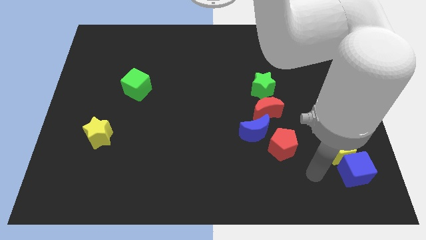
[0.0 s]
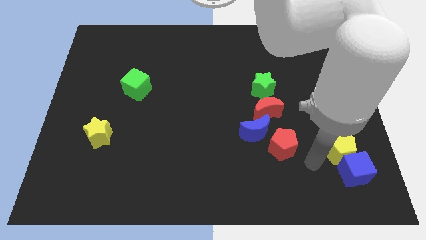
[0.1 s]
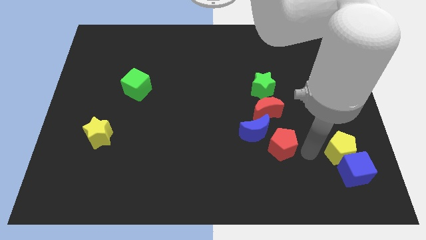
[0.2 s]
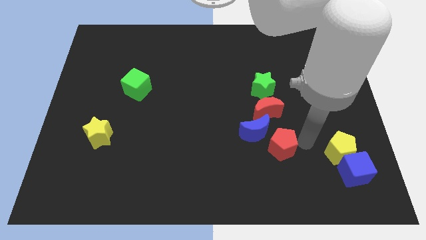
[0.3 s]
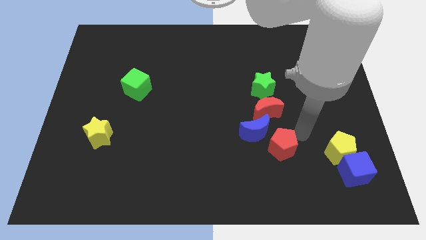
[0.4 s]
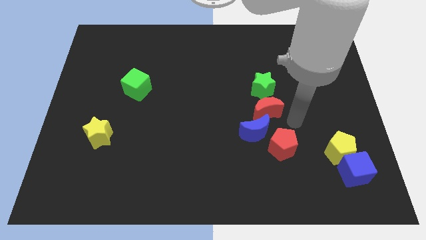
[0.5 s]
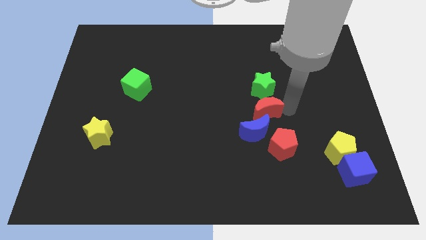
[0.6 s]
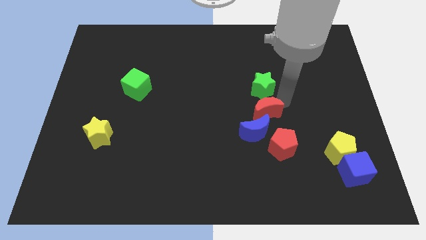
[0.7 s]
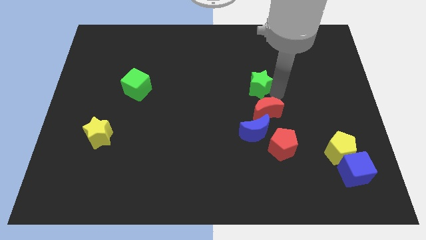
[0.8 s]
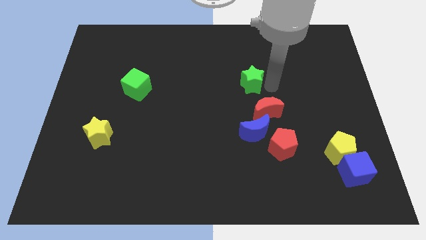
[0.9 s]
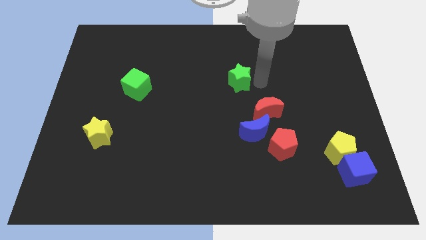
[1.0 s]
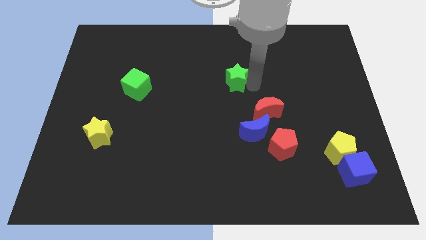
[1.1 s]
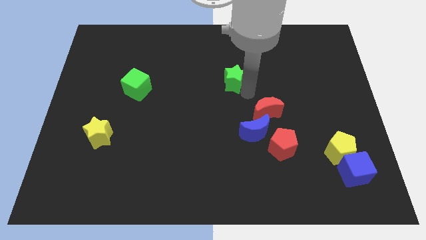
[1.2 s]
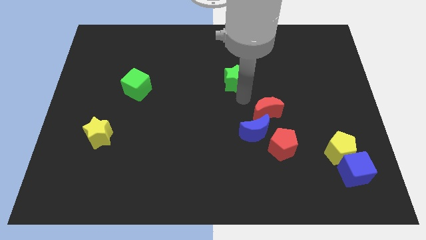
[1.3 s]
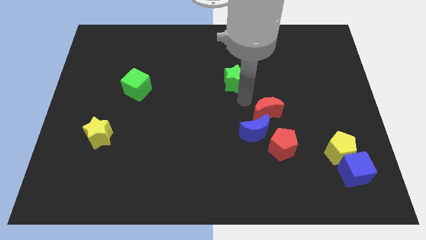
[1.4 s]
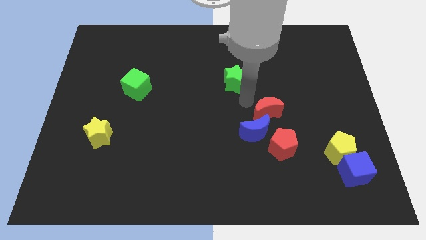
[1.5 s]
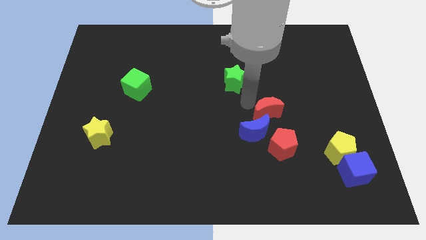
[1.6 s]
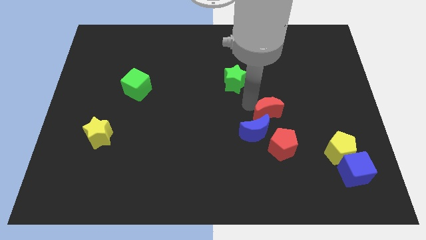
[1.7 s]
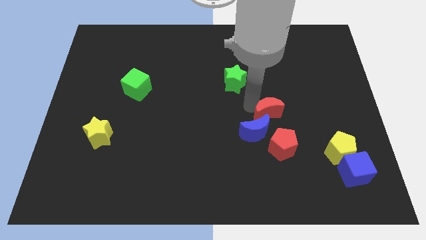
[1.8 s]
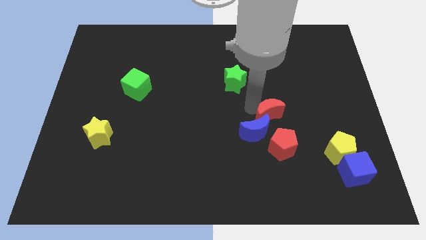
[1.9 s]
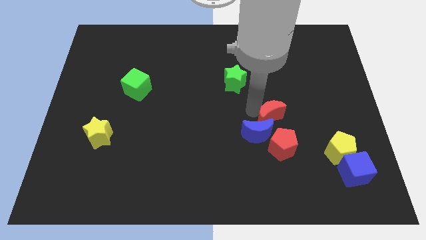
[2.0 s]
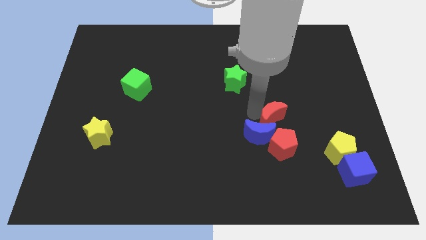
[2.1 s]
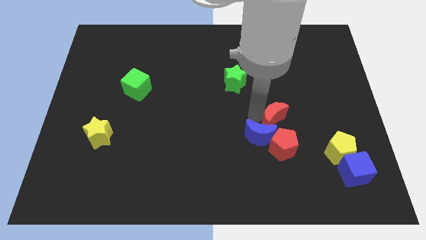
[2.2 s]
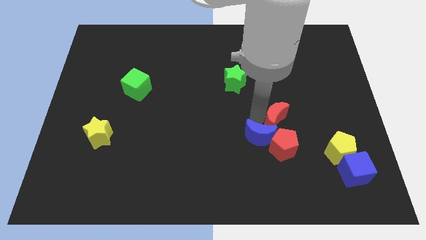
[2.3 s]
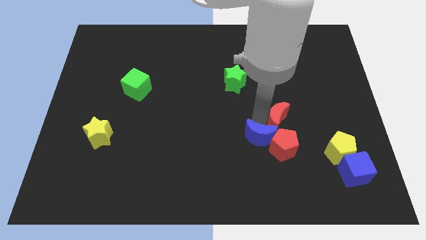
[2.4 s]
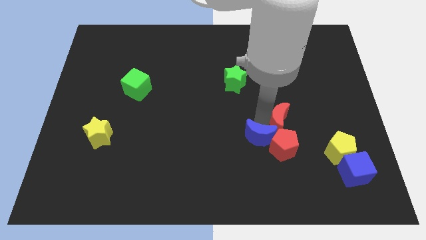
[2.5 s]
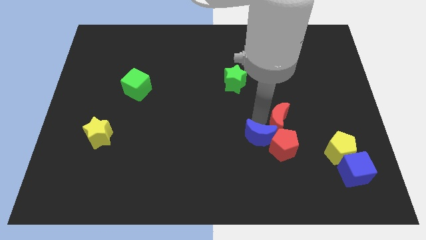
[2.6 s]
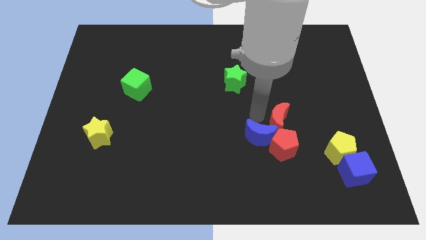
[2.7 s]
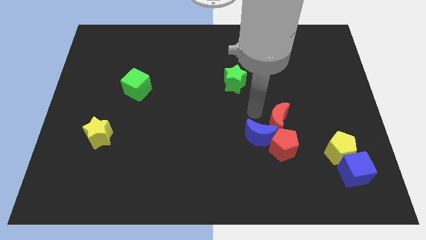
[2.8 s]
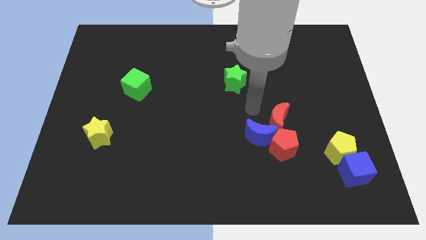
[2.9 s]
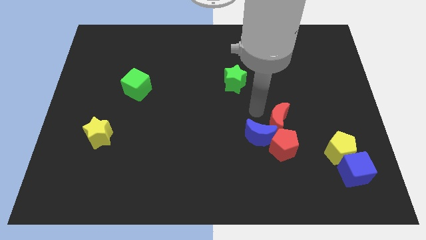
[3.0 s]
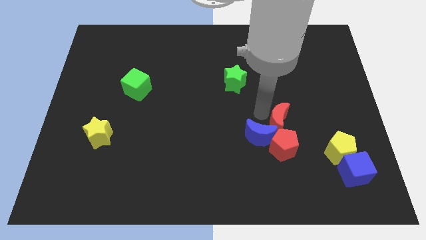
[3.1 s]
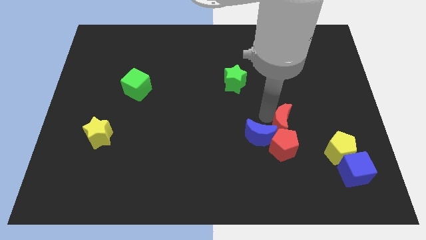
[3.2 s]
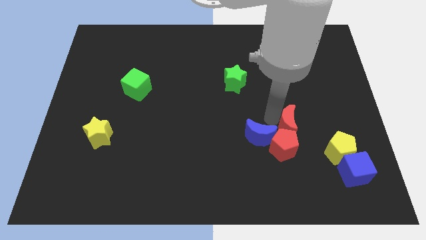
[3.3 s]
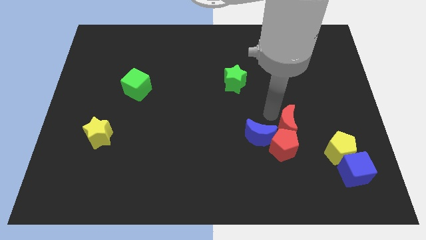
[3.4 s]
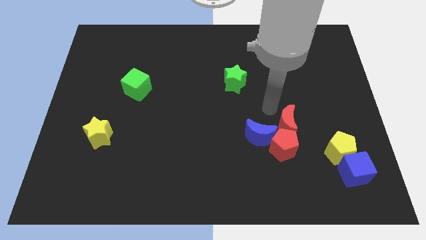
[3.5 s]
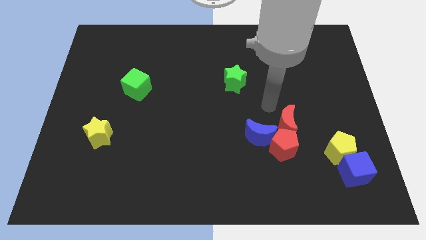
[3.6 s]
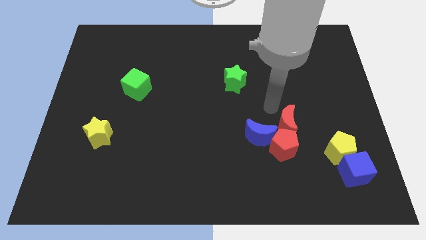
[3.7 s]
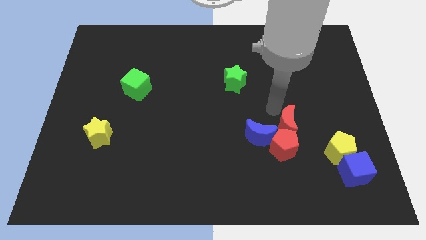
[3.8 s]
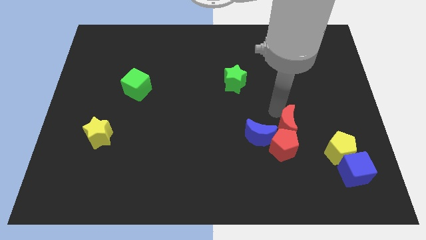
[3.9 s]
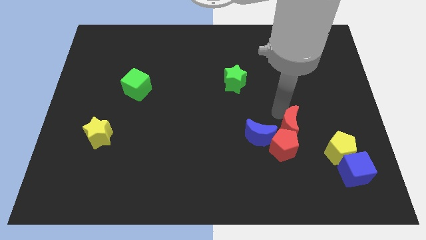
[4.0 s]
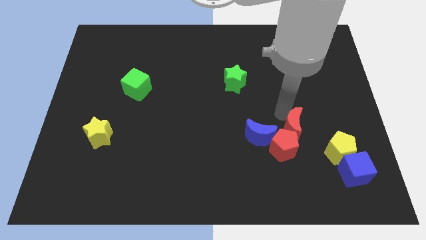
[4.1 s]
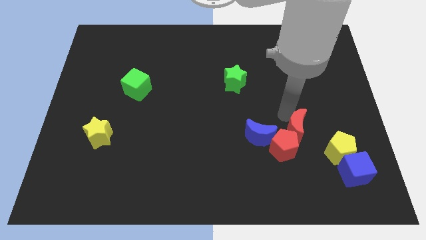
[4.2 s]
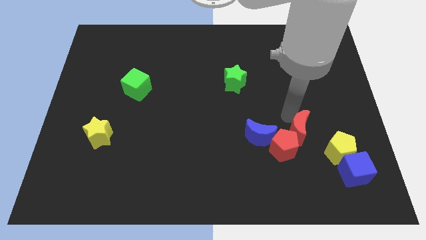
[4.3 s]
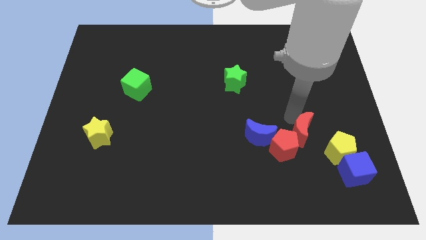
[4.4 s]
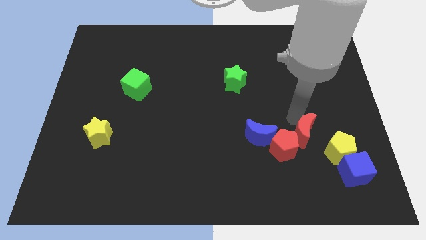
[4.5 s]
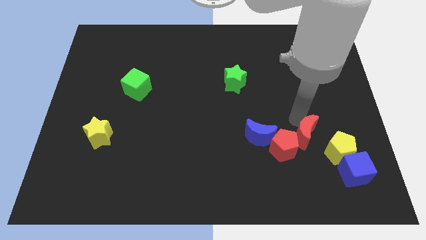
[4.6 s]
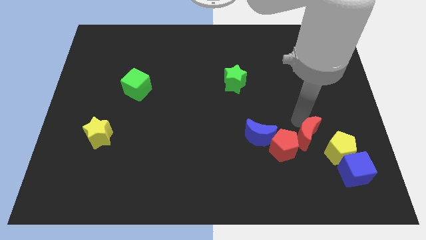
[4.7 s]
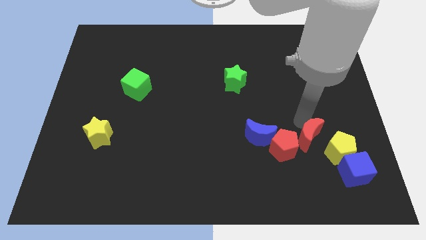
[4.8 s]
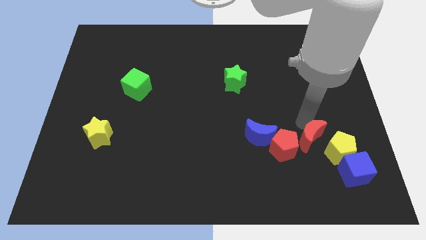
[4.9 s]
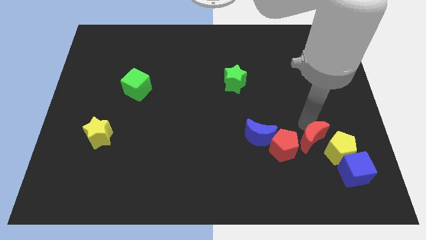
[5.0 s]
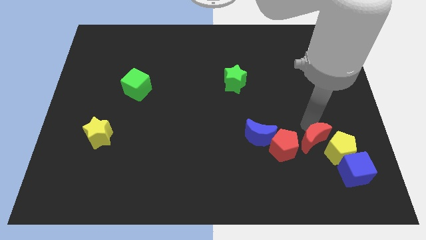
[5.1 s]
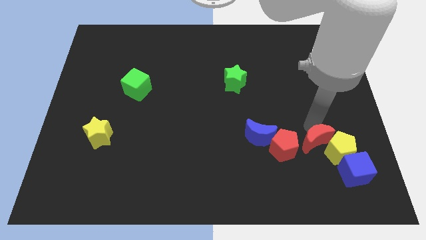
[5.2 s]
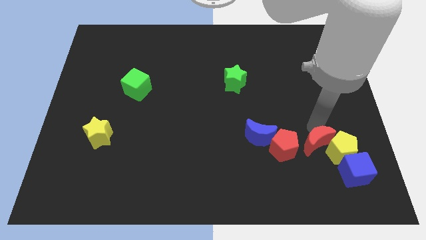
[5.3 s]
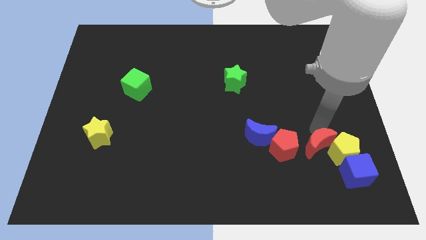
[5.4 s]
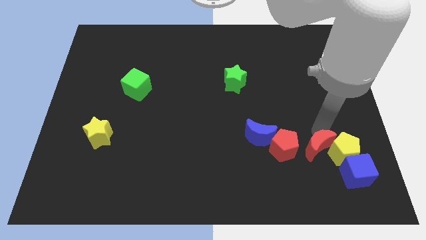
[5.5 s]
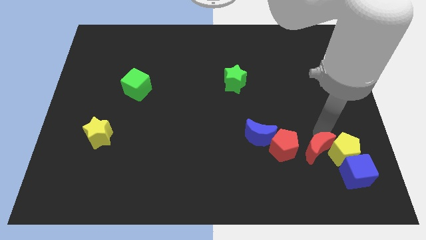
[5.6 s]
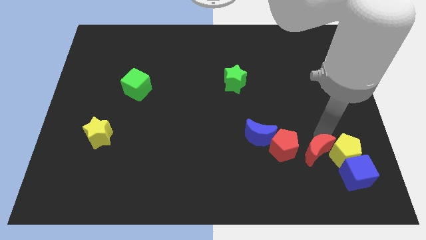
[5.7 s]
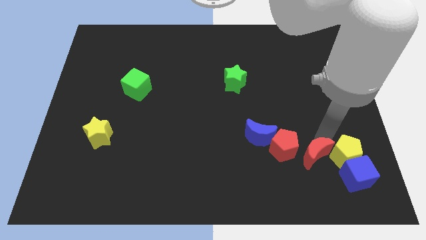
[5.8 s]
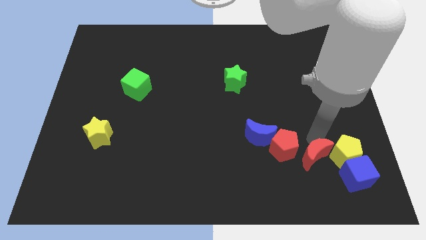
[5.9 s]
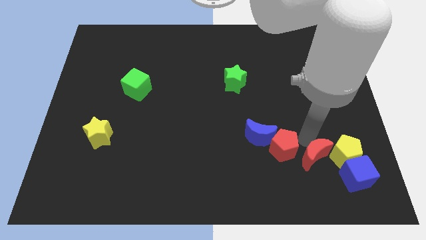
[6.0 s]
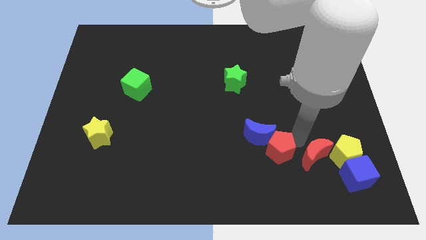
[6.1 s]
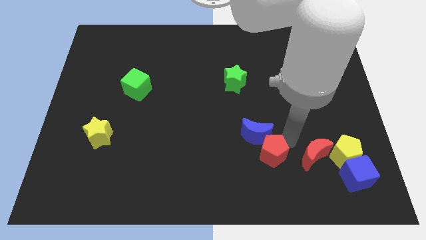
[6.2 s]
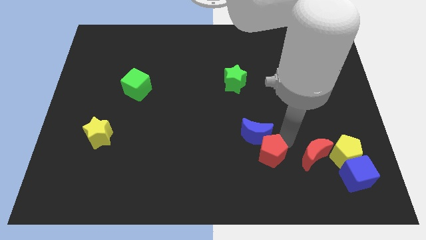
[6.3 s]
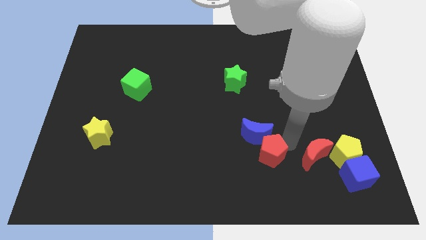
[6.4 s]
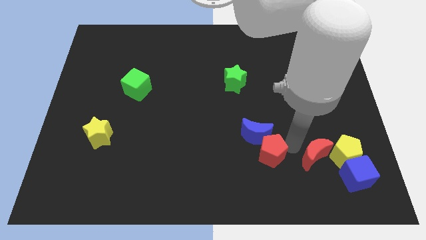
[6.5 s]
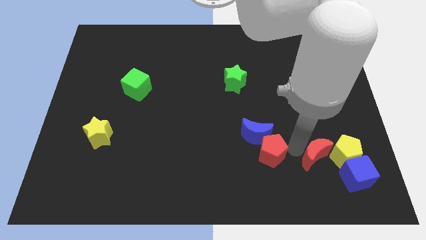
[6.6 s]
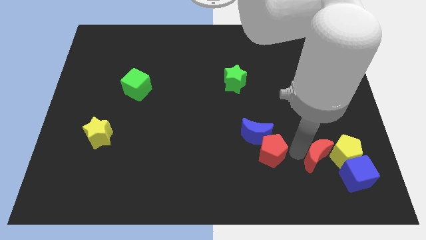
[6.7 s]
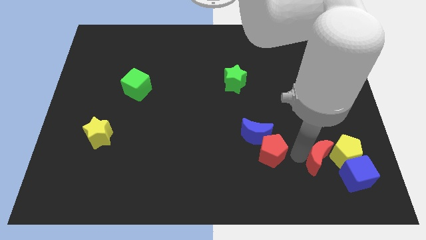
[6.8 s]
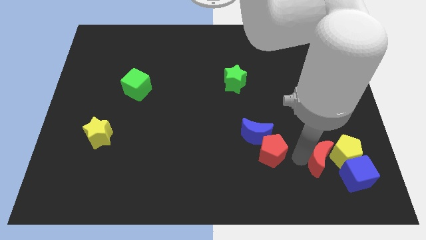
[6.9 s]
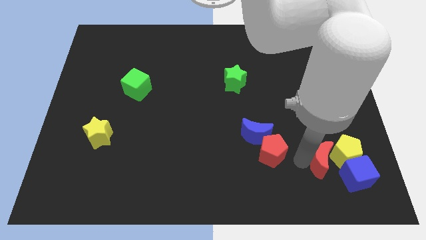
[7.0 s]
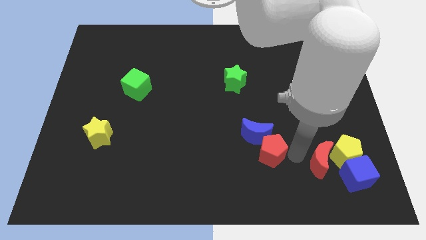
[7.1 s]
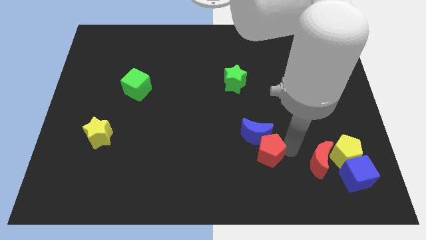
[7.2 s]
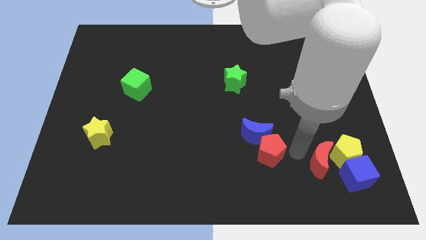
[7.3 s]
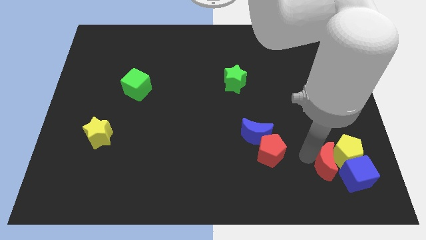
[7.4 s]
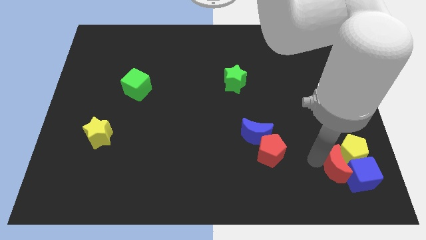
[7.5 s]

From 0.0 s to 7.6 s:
push the red moon towards the blue cube
